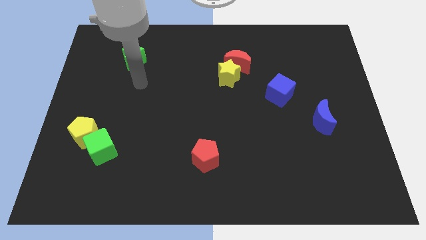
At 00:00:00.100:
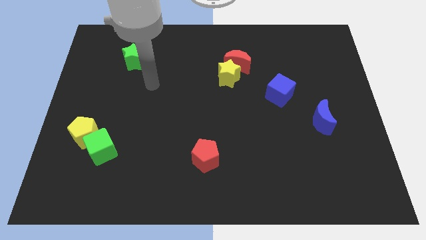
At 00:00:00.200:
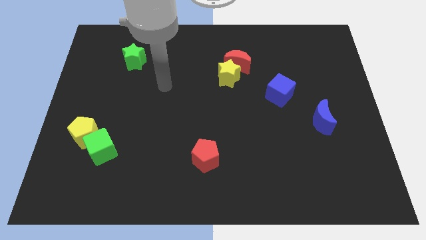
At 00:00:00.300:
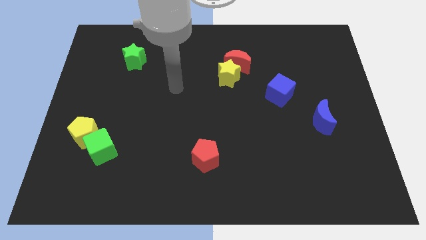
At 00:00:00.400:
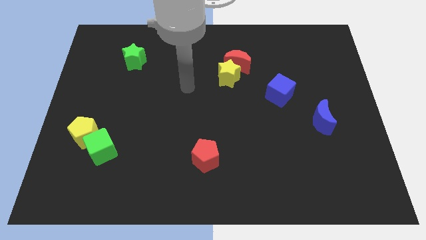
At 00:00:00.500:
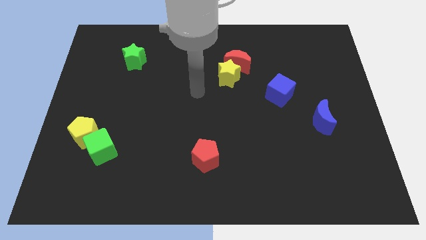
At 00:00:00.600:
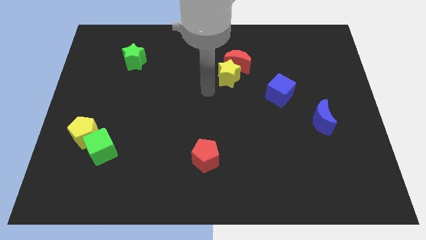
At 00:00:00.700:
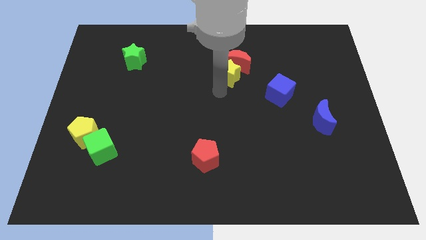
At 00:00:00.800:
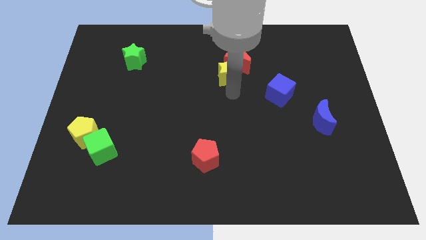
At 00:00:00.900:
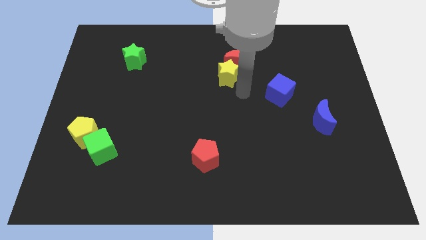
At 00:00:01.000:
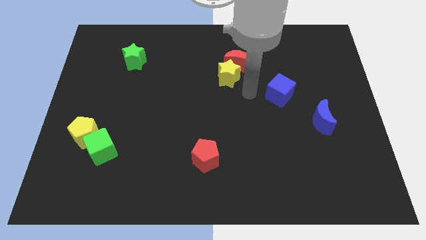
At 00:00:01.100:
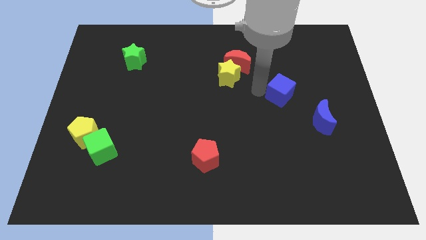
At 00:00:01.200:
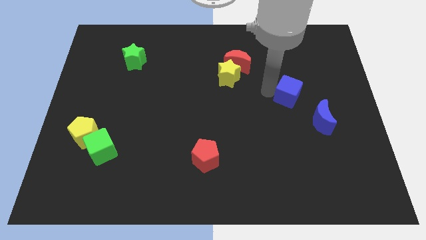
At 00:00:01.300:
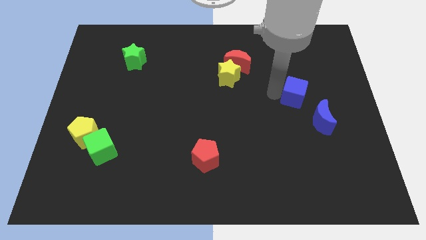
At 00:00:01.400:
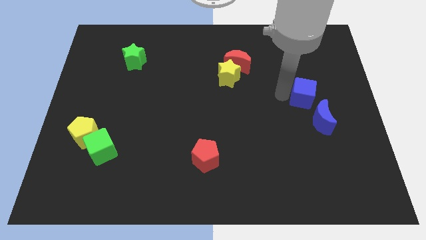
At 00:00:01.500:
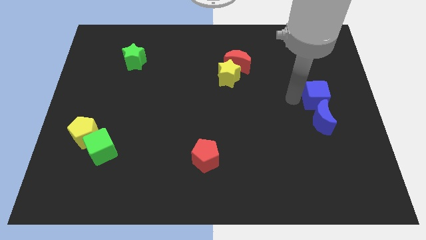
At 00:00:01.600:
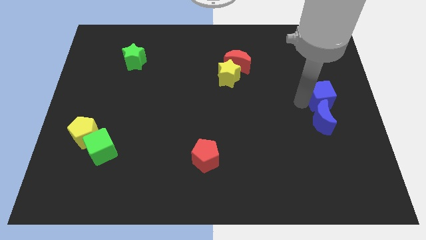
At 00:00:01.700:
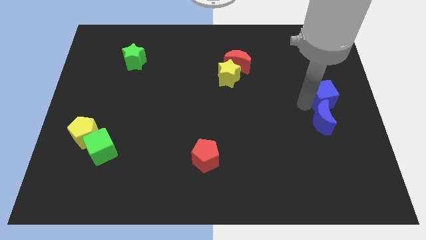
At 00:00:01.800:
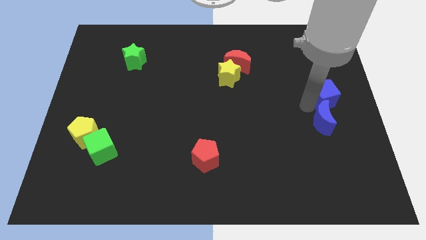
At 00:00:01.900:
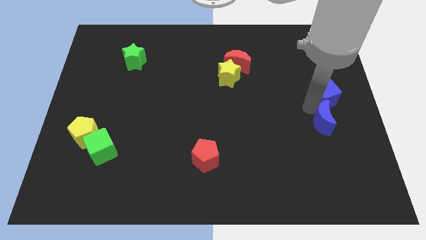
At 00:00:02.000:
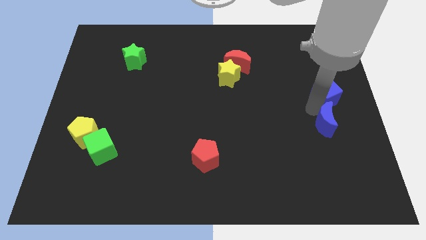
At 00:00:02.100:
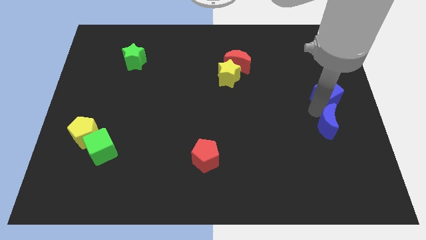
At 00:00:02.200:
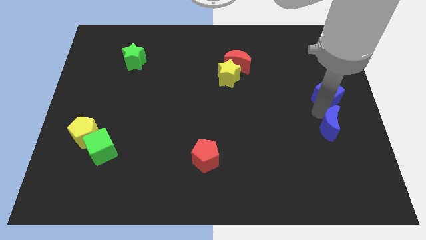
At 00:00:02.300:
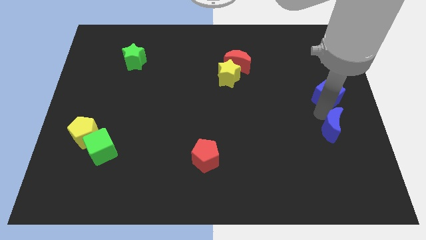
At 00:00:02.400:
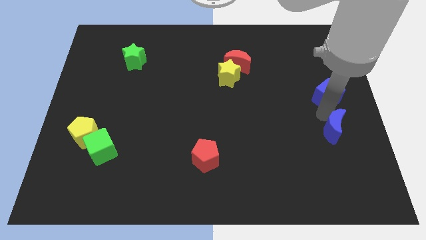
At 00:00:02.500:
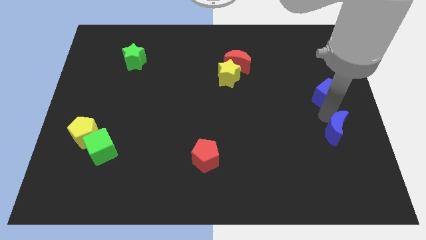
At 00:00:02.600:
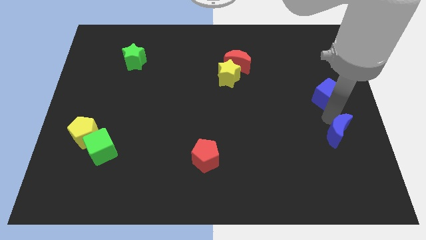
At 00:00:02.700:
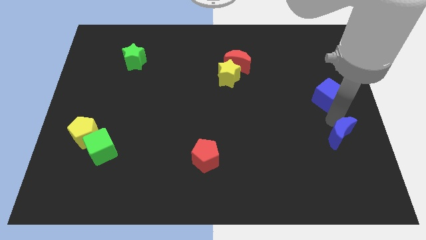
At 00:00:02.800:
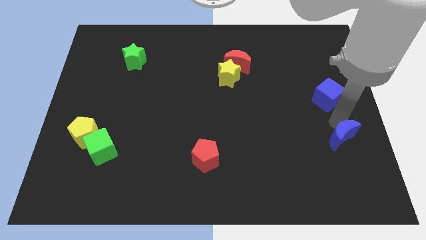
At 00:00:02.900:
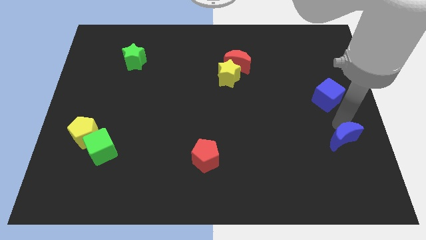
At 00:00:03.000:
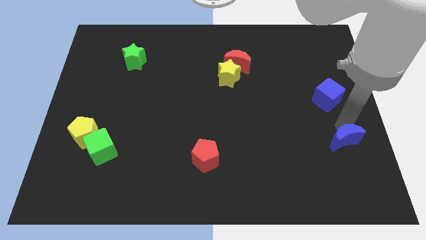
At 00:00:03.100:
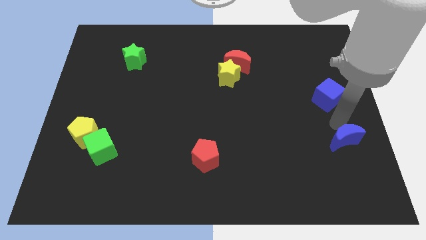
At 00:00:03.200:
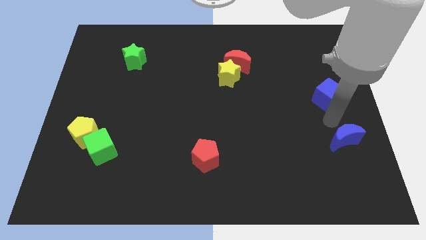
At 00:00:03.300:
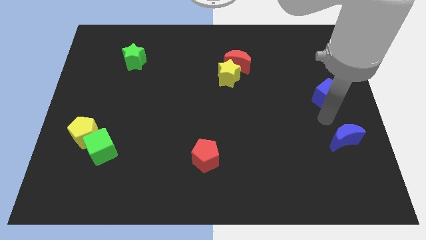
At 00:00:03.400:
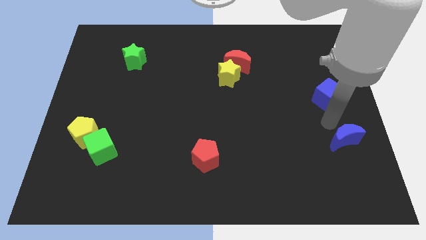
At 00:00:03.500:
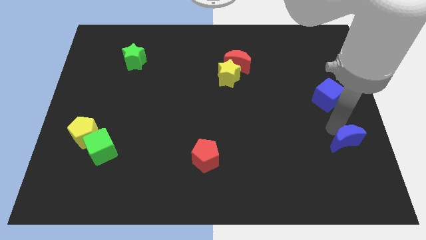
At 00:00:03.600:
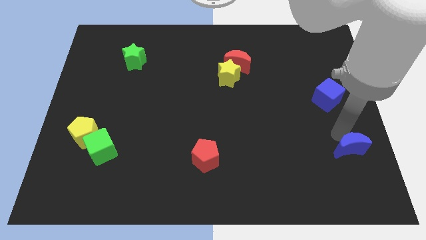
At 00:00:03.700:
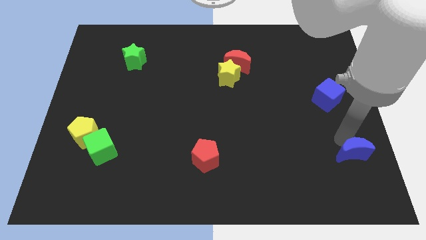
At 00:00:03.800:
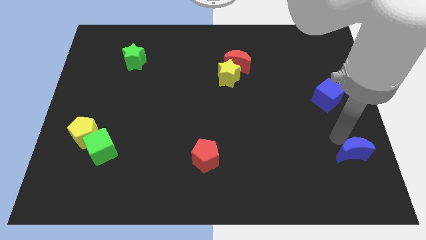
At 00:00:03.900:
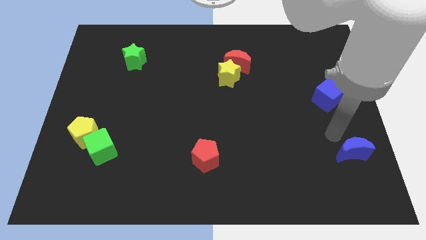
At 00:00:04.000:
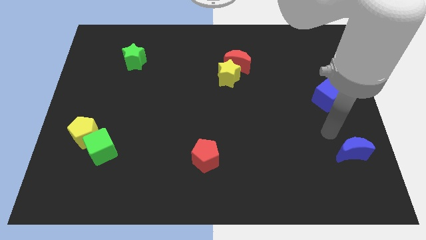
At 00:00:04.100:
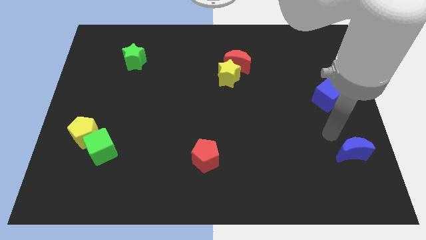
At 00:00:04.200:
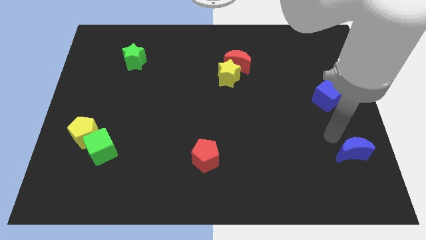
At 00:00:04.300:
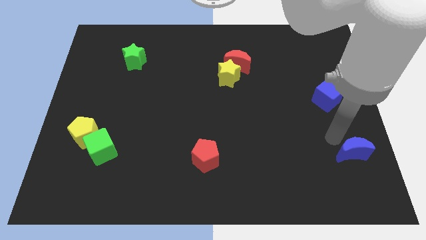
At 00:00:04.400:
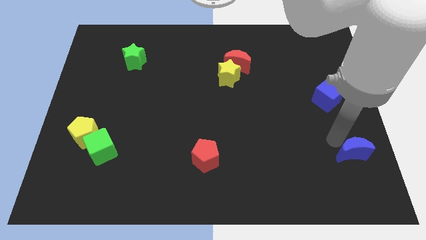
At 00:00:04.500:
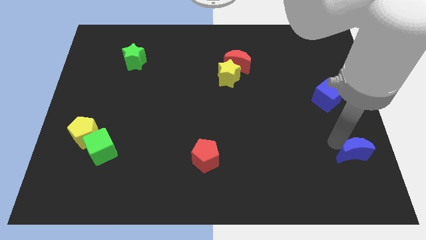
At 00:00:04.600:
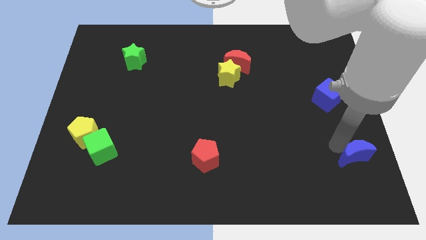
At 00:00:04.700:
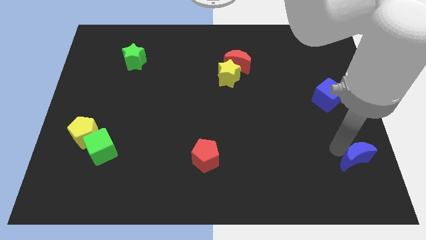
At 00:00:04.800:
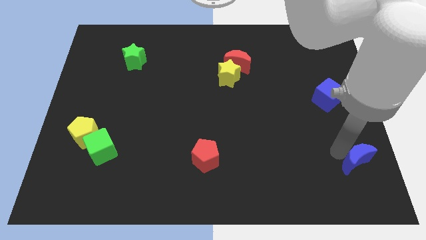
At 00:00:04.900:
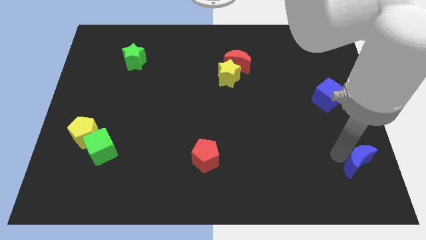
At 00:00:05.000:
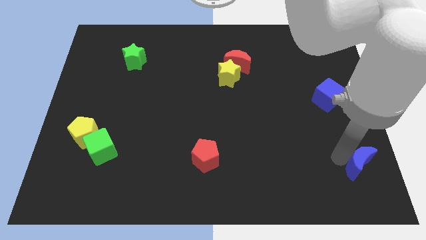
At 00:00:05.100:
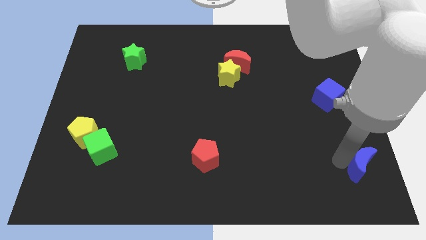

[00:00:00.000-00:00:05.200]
slide the blue moon to the bottom right

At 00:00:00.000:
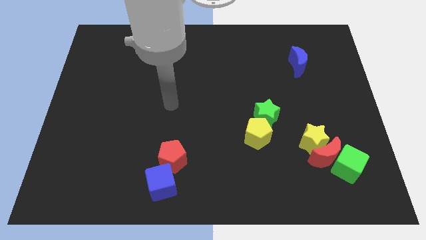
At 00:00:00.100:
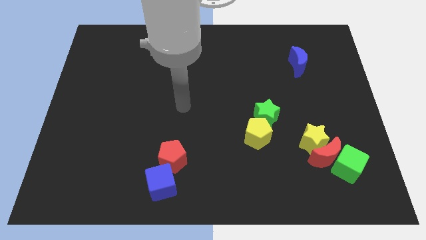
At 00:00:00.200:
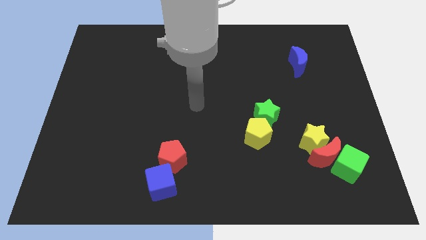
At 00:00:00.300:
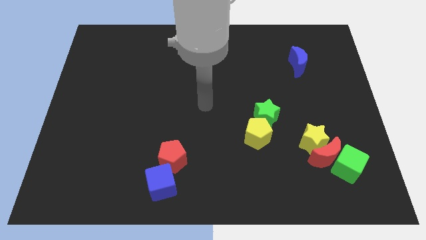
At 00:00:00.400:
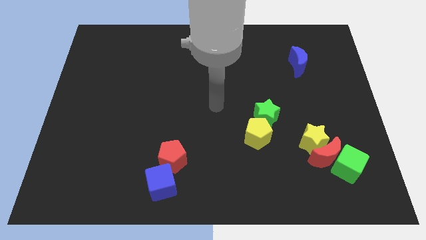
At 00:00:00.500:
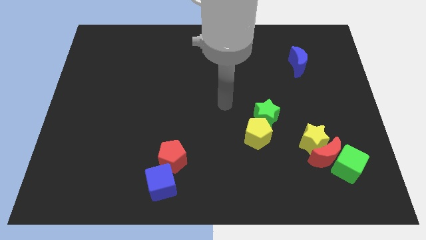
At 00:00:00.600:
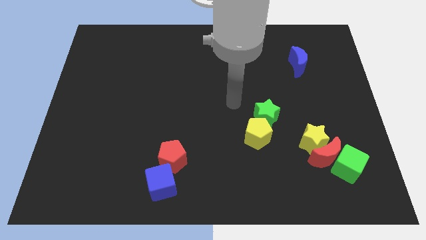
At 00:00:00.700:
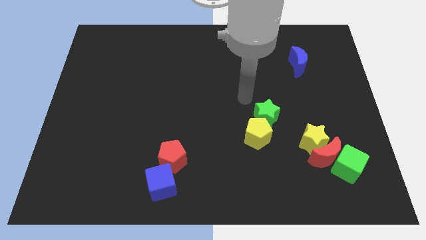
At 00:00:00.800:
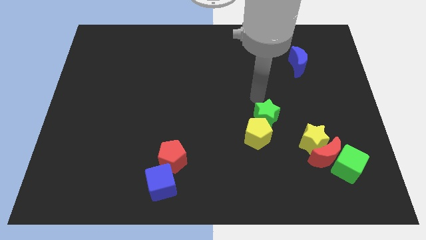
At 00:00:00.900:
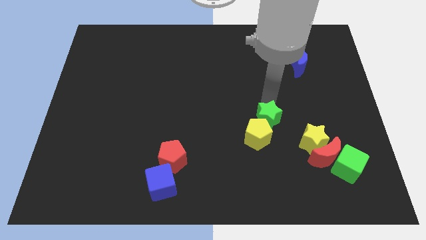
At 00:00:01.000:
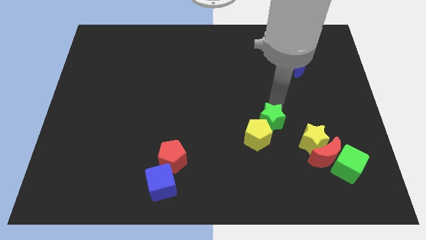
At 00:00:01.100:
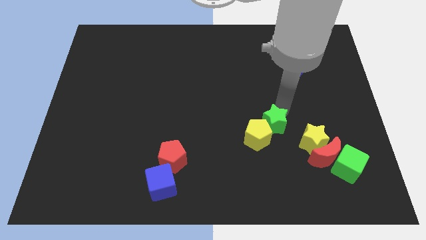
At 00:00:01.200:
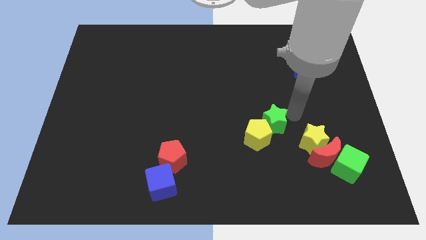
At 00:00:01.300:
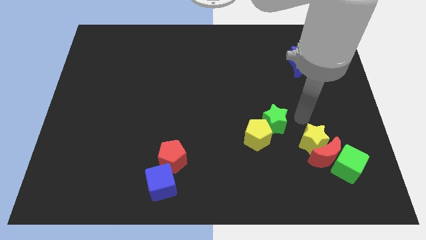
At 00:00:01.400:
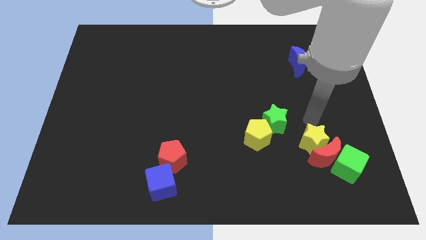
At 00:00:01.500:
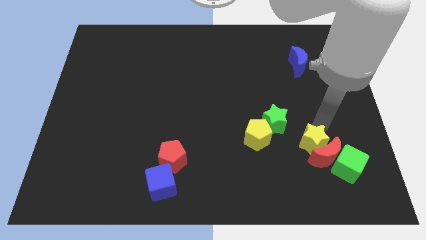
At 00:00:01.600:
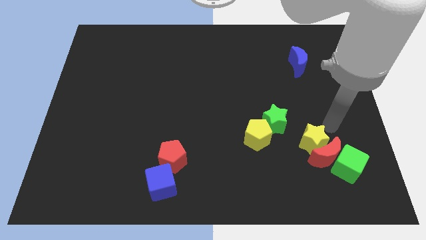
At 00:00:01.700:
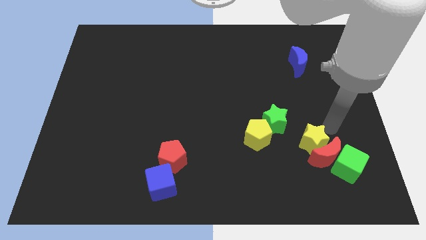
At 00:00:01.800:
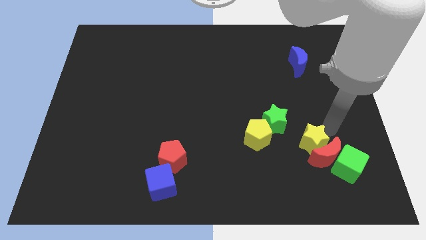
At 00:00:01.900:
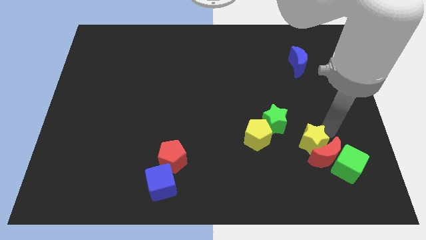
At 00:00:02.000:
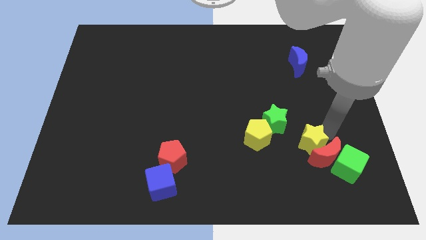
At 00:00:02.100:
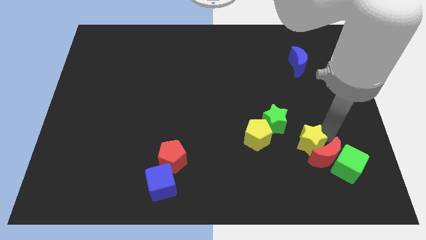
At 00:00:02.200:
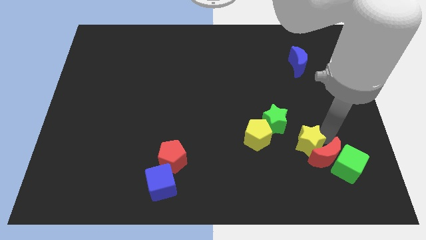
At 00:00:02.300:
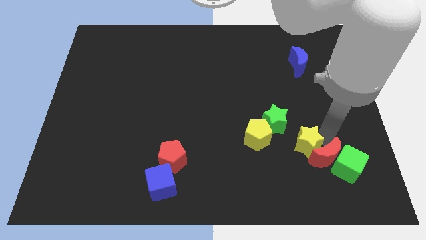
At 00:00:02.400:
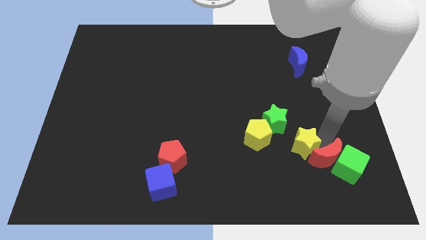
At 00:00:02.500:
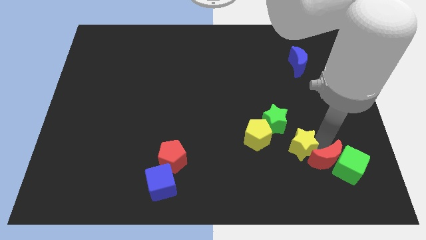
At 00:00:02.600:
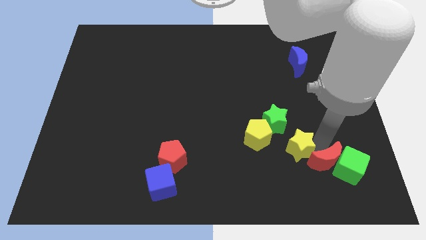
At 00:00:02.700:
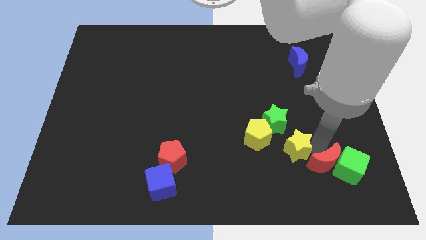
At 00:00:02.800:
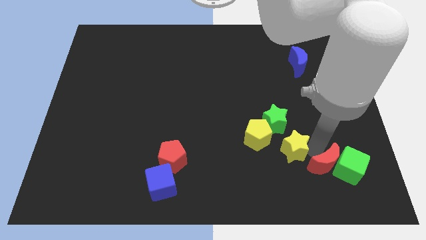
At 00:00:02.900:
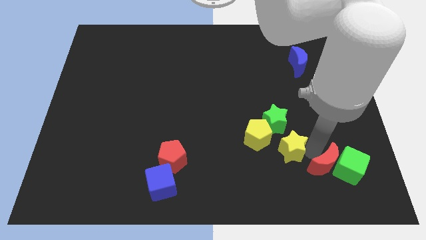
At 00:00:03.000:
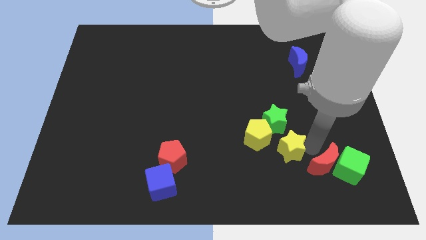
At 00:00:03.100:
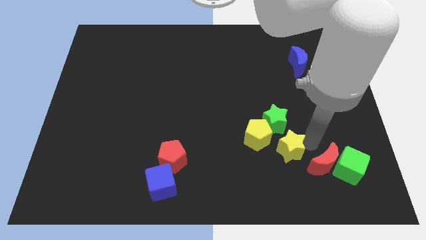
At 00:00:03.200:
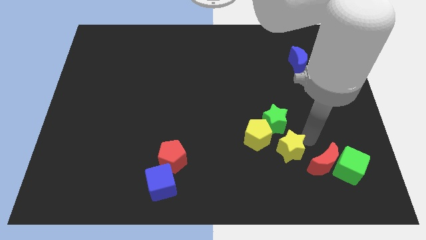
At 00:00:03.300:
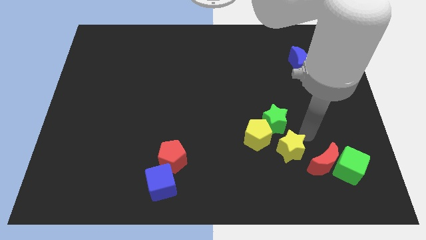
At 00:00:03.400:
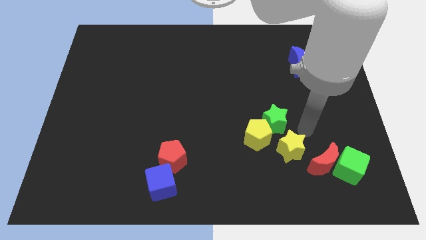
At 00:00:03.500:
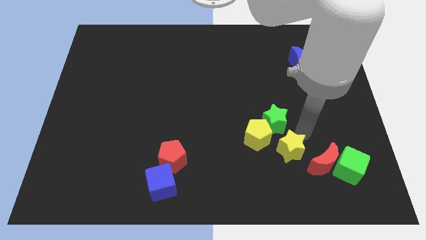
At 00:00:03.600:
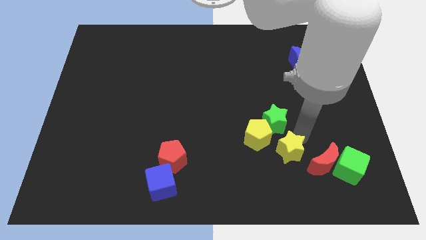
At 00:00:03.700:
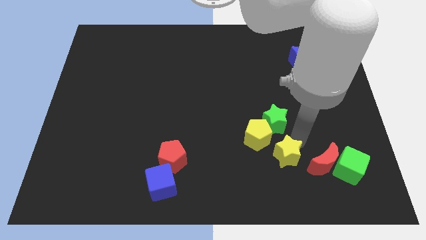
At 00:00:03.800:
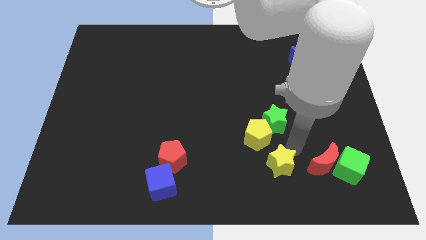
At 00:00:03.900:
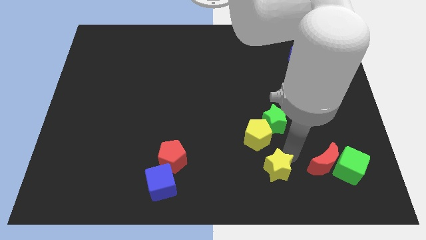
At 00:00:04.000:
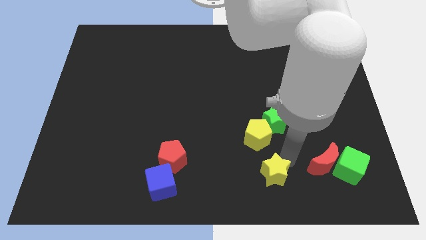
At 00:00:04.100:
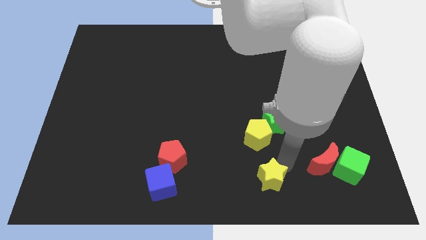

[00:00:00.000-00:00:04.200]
push the yellow star to the bottom side
